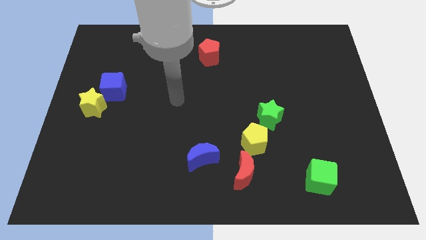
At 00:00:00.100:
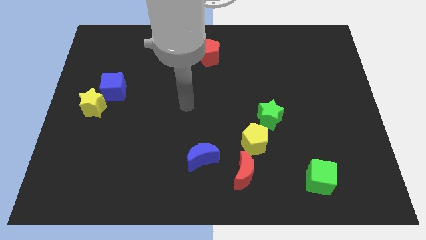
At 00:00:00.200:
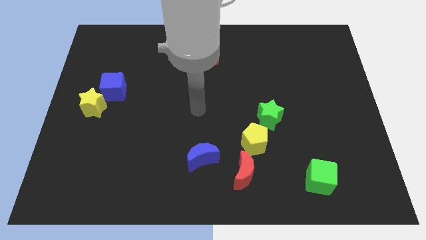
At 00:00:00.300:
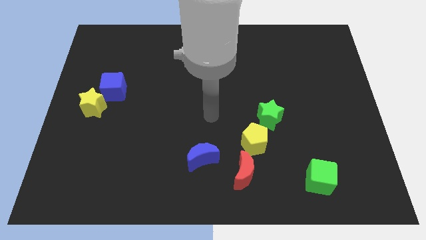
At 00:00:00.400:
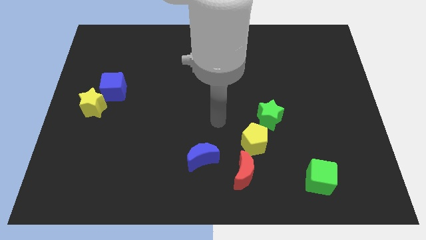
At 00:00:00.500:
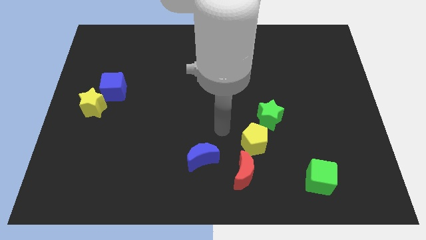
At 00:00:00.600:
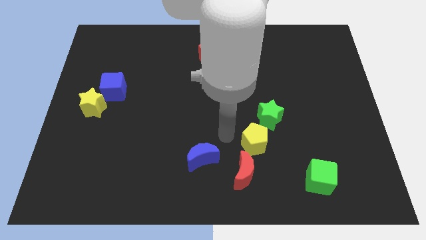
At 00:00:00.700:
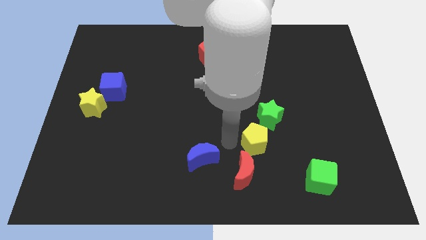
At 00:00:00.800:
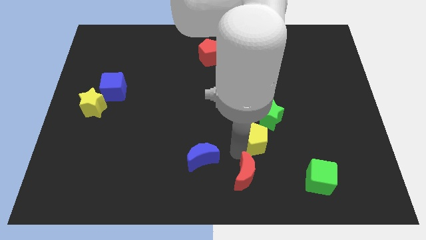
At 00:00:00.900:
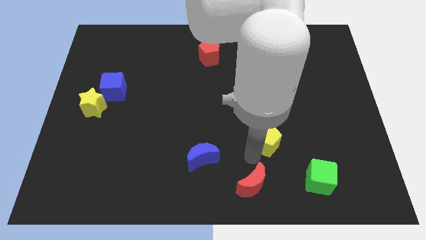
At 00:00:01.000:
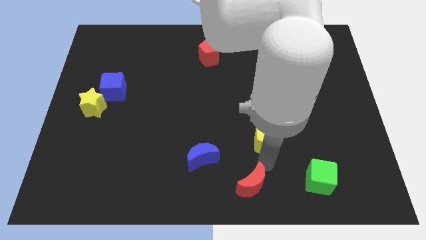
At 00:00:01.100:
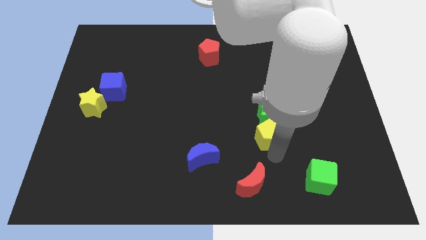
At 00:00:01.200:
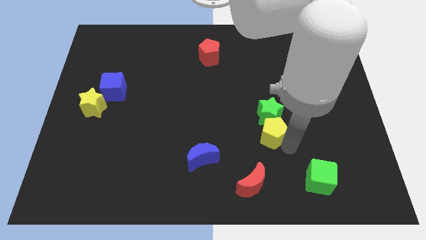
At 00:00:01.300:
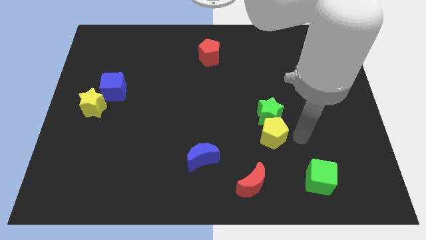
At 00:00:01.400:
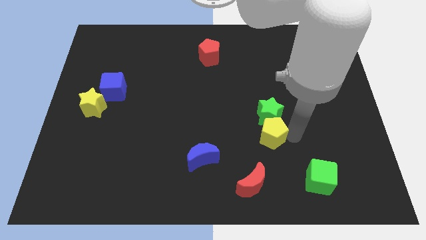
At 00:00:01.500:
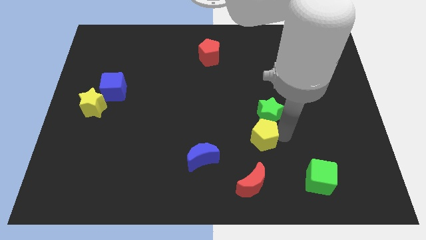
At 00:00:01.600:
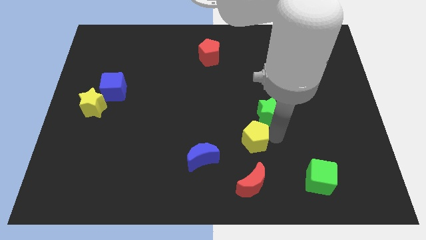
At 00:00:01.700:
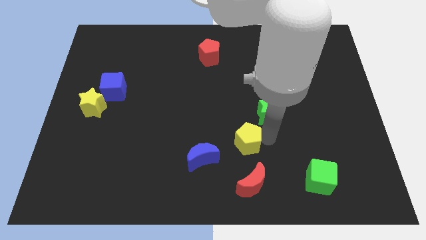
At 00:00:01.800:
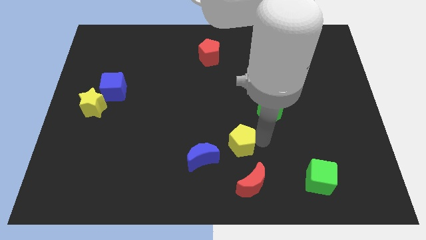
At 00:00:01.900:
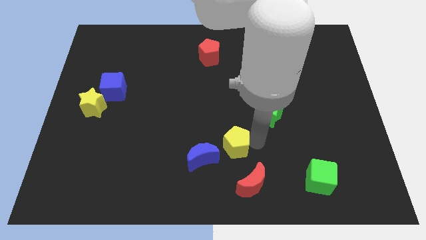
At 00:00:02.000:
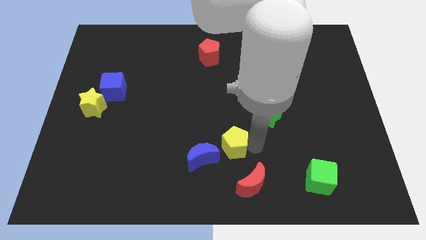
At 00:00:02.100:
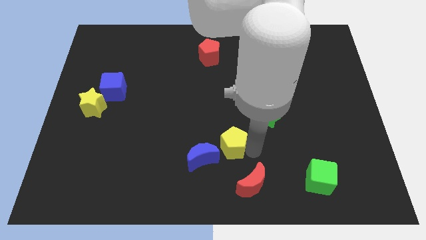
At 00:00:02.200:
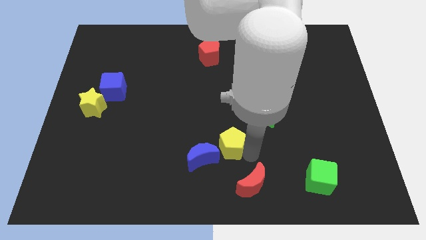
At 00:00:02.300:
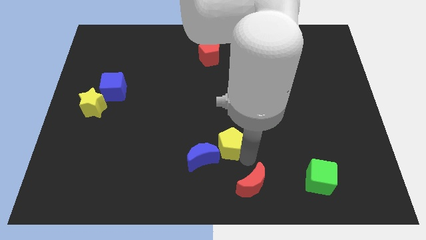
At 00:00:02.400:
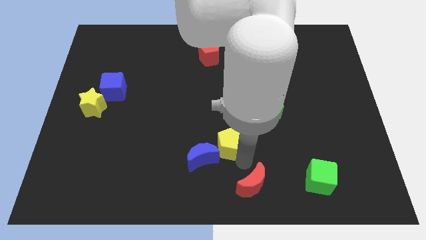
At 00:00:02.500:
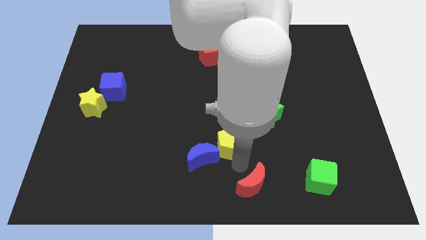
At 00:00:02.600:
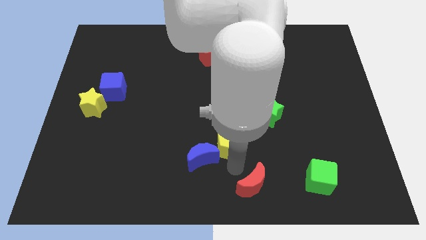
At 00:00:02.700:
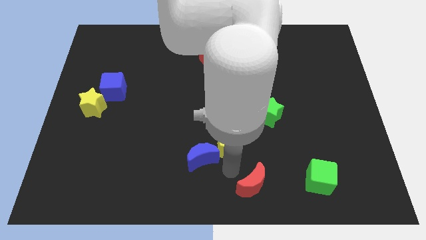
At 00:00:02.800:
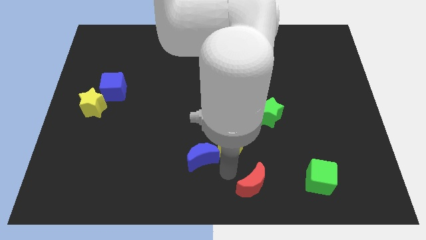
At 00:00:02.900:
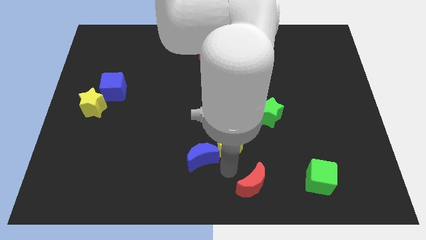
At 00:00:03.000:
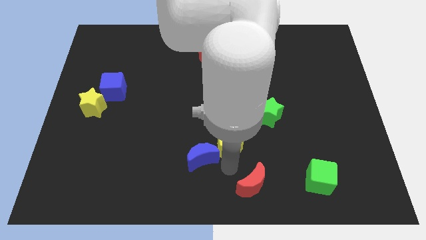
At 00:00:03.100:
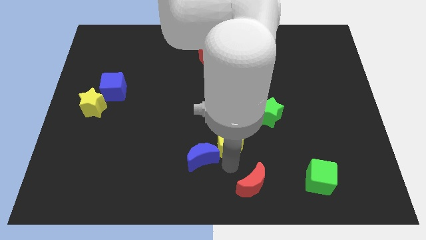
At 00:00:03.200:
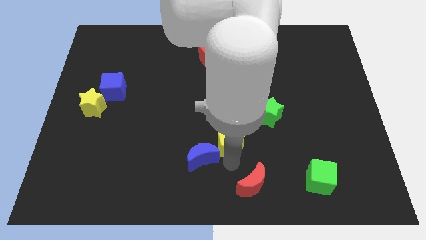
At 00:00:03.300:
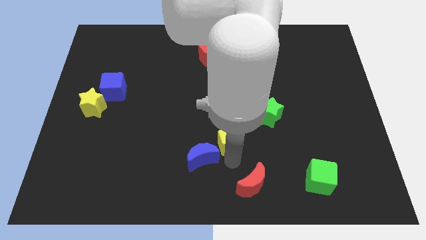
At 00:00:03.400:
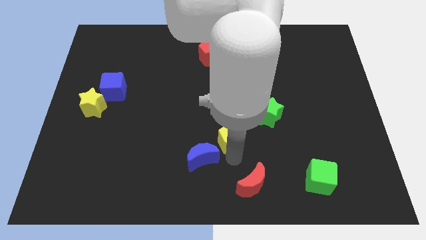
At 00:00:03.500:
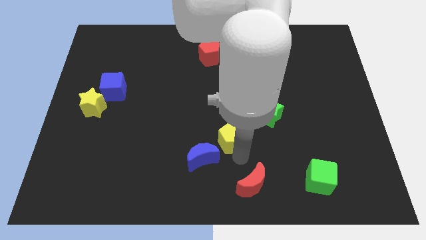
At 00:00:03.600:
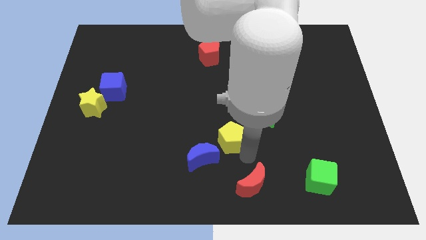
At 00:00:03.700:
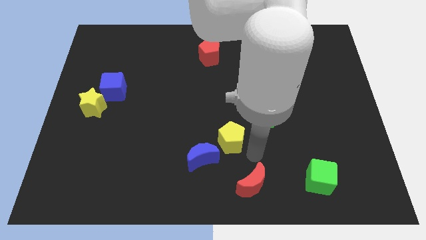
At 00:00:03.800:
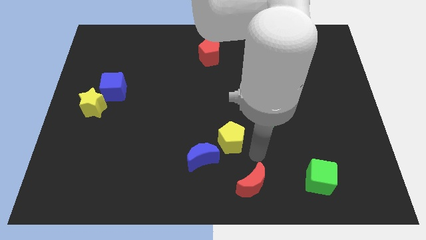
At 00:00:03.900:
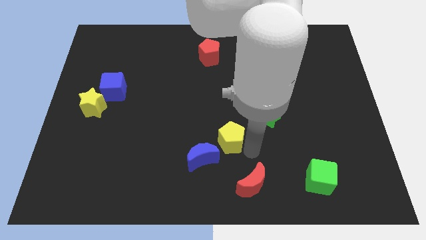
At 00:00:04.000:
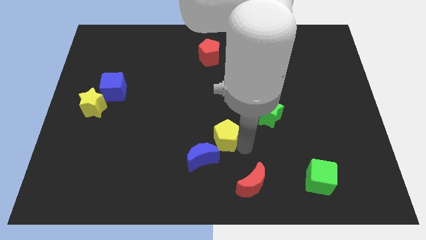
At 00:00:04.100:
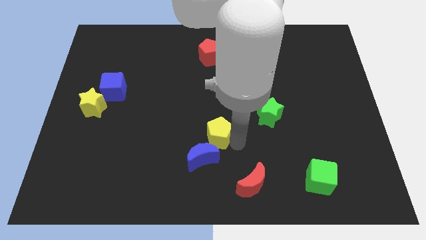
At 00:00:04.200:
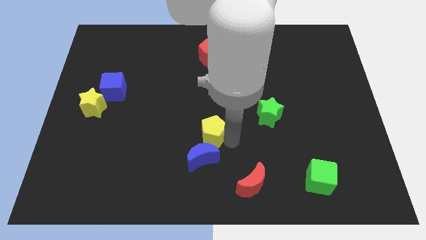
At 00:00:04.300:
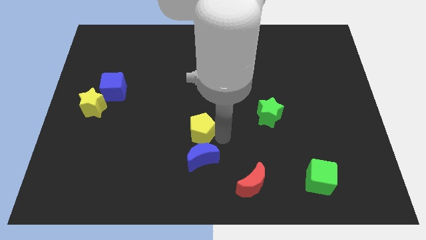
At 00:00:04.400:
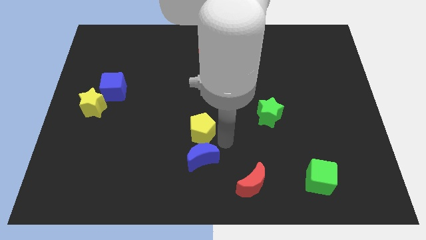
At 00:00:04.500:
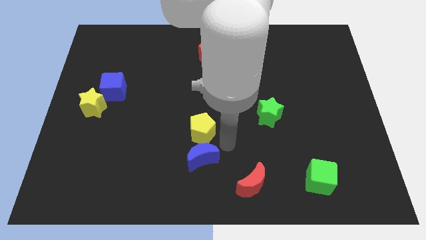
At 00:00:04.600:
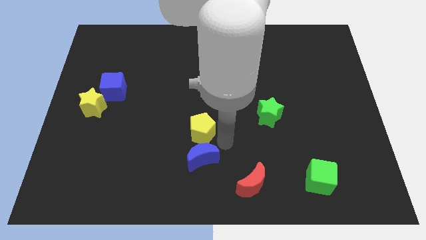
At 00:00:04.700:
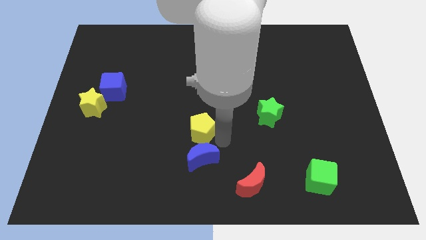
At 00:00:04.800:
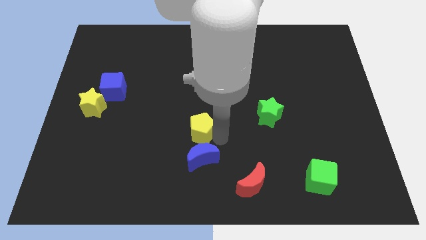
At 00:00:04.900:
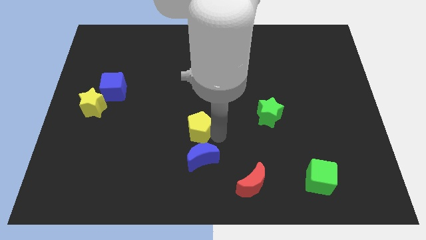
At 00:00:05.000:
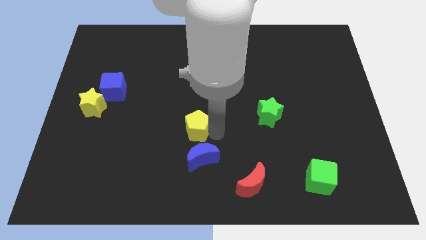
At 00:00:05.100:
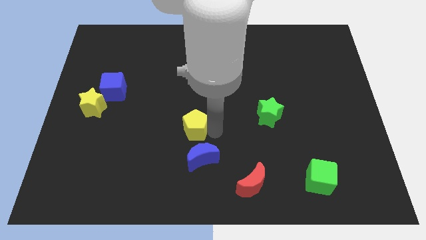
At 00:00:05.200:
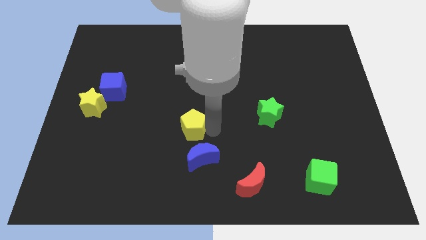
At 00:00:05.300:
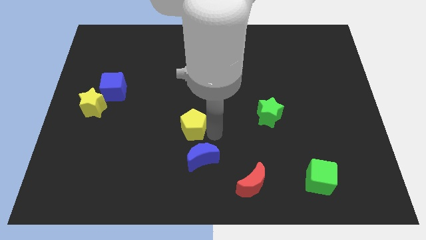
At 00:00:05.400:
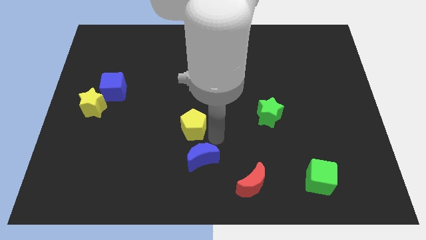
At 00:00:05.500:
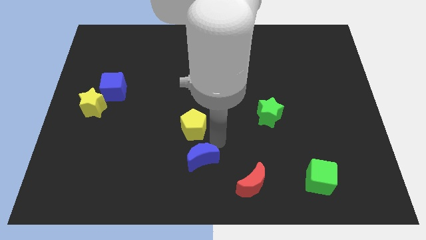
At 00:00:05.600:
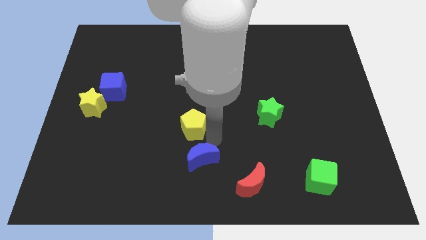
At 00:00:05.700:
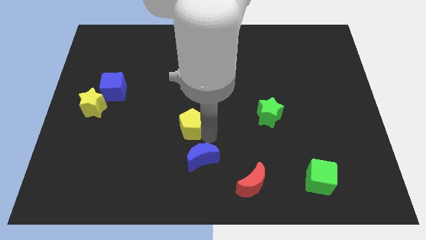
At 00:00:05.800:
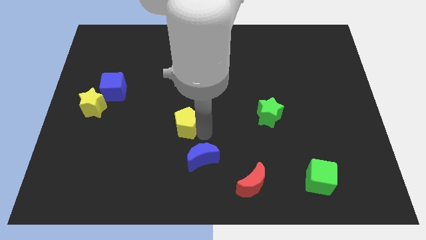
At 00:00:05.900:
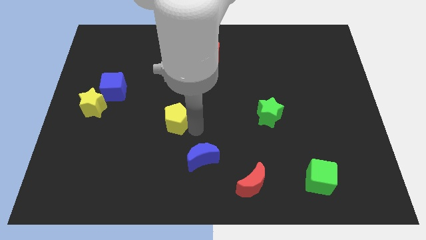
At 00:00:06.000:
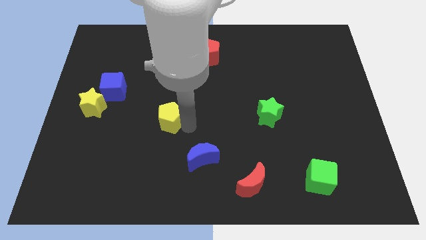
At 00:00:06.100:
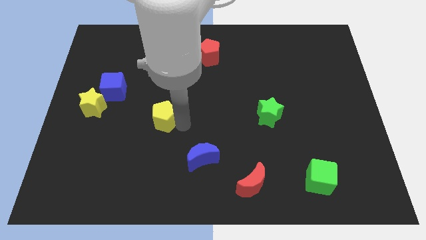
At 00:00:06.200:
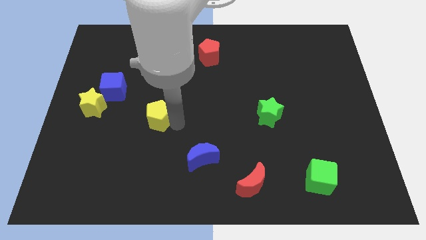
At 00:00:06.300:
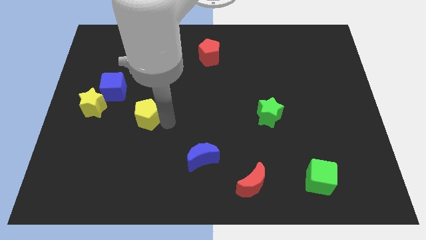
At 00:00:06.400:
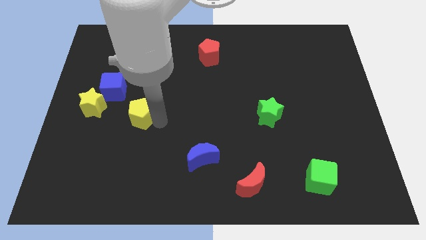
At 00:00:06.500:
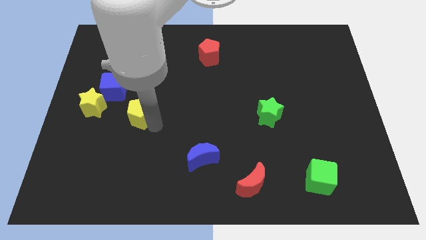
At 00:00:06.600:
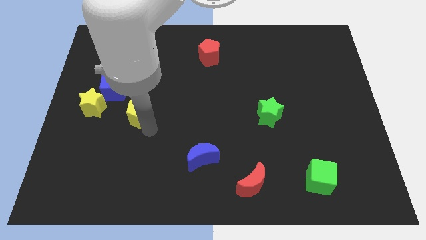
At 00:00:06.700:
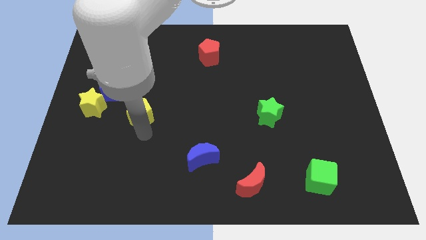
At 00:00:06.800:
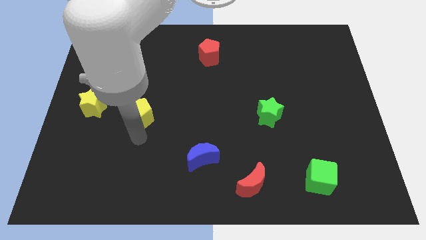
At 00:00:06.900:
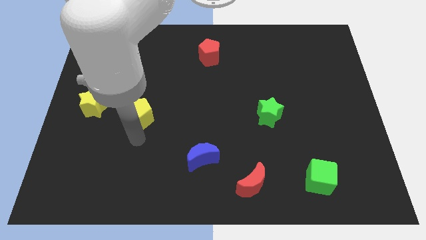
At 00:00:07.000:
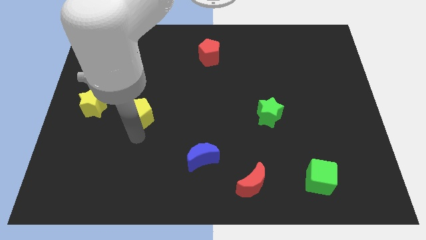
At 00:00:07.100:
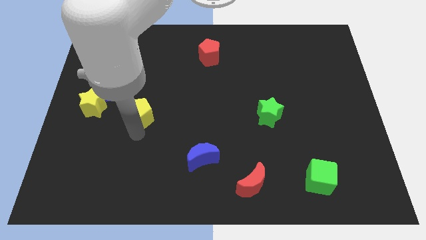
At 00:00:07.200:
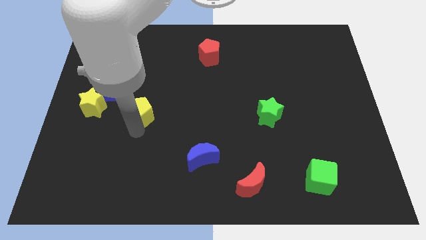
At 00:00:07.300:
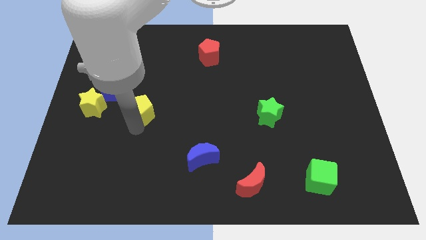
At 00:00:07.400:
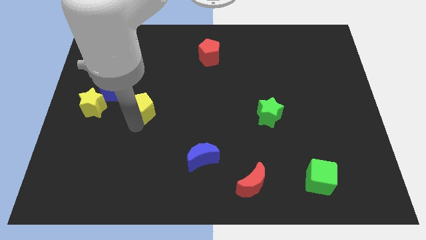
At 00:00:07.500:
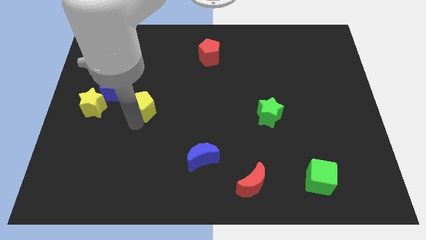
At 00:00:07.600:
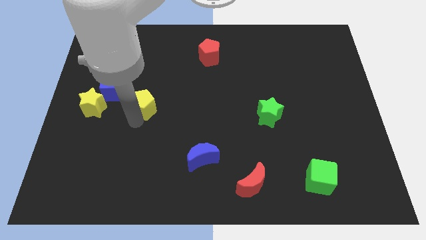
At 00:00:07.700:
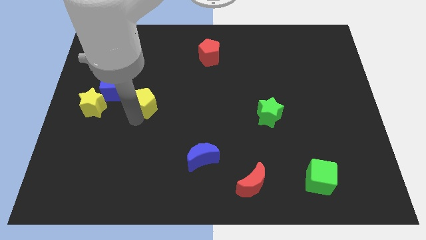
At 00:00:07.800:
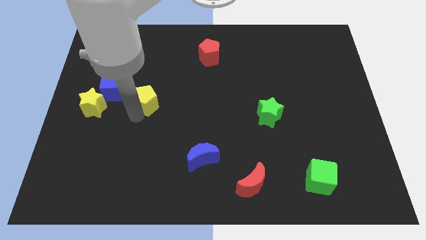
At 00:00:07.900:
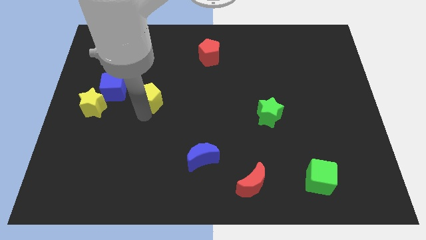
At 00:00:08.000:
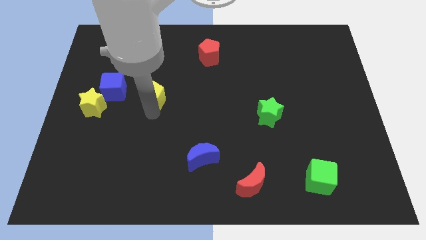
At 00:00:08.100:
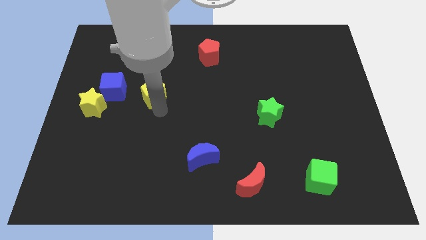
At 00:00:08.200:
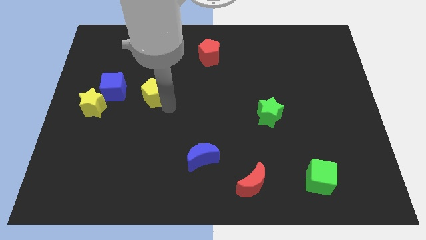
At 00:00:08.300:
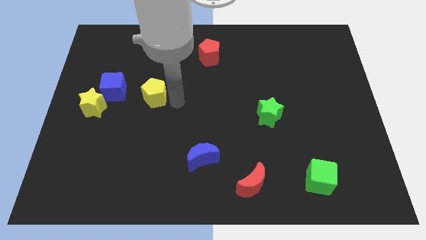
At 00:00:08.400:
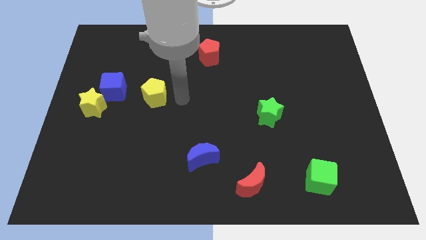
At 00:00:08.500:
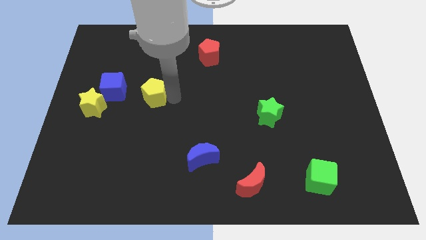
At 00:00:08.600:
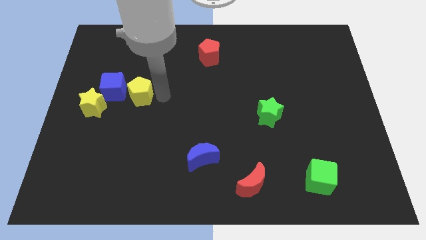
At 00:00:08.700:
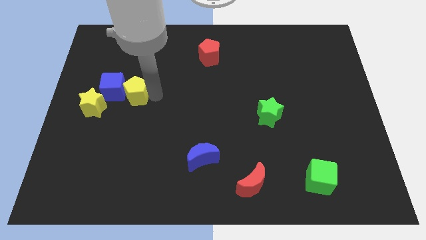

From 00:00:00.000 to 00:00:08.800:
push the yellow pentagon close to the blue cube
